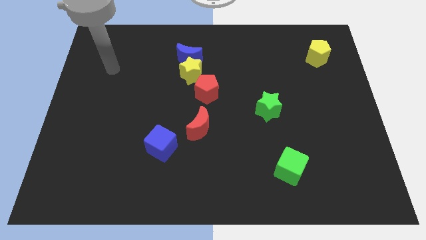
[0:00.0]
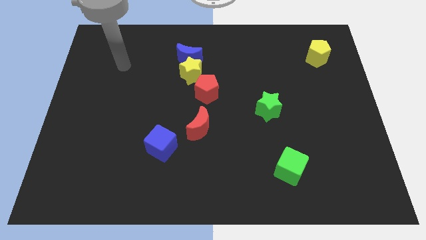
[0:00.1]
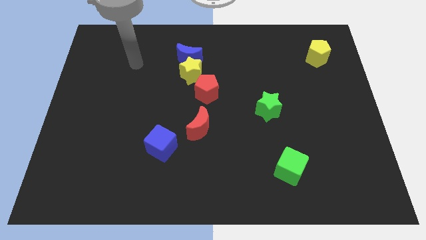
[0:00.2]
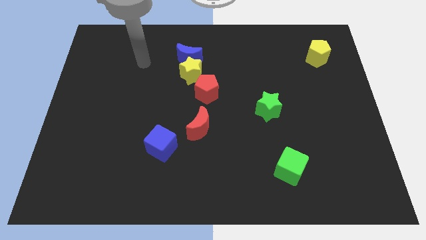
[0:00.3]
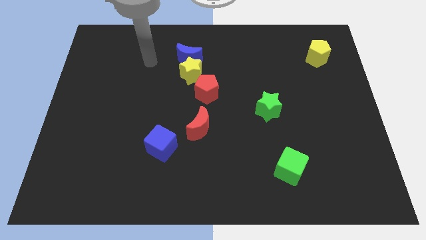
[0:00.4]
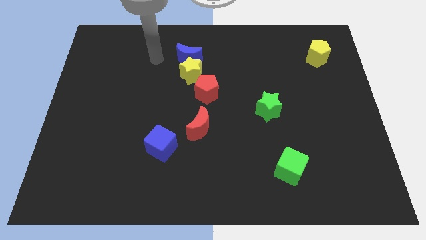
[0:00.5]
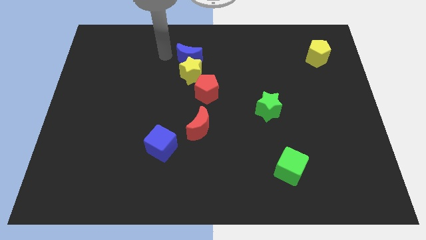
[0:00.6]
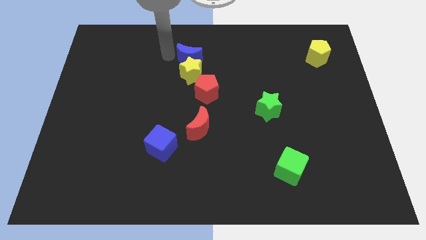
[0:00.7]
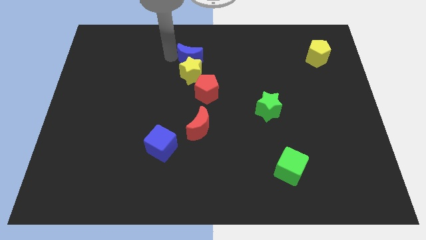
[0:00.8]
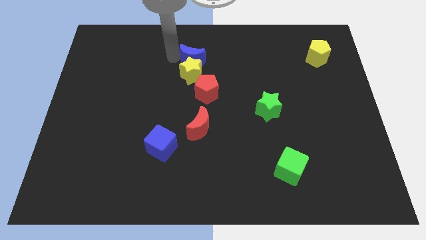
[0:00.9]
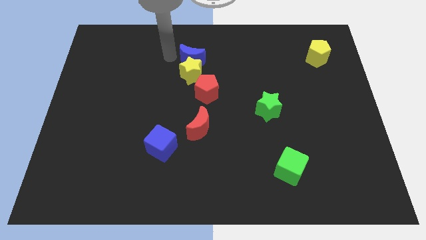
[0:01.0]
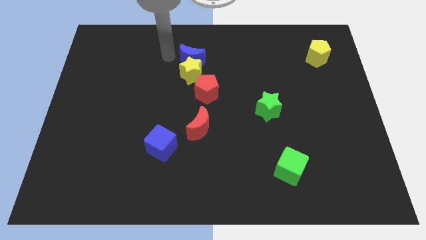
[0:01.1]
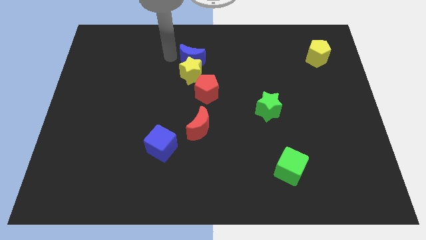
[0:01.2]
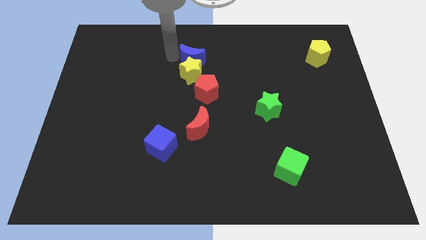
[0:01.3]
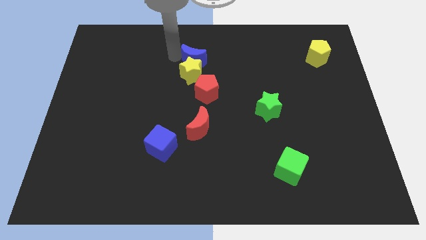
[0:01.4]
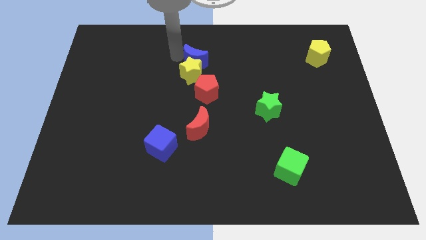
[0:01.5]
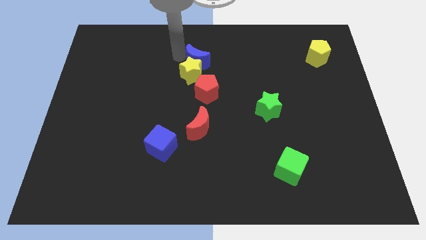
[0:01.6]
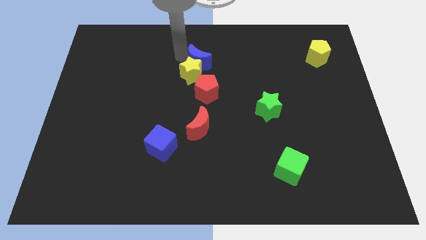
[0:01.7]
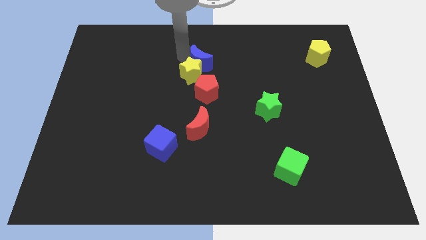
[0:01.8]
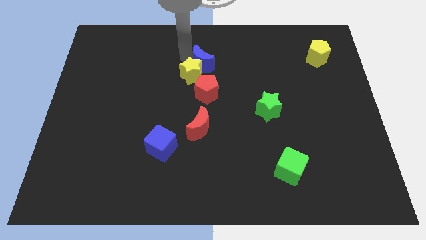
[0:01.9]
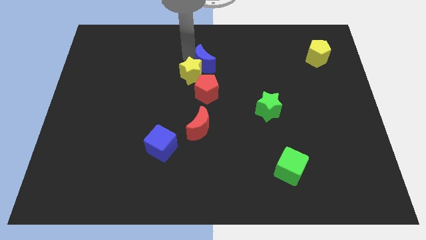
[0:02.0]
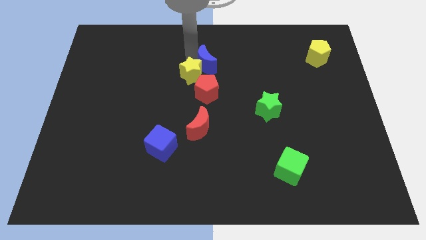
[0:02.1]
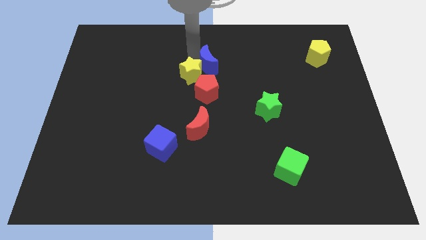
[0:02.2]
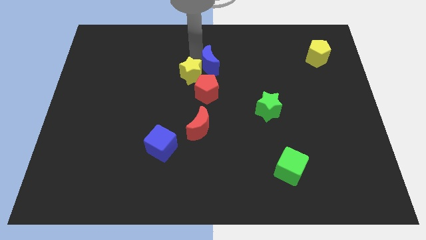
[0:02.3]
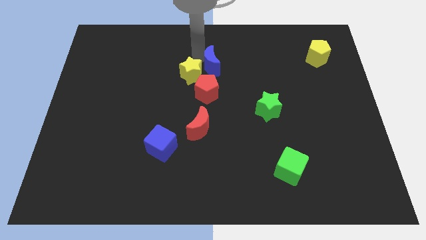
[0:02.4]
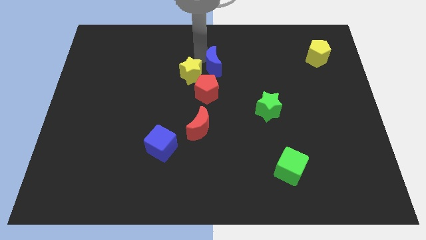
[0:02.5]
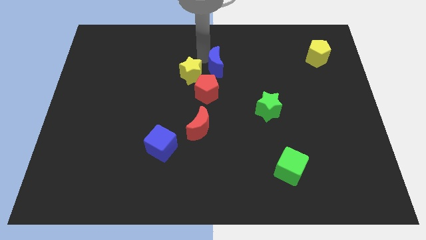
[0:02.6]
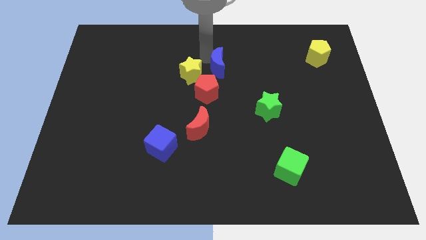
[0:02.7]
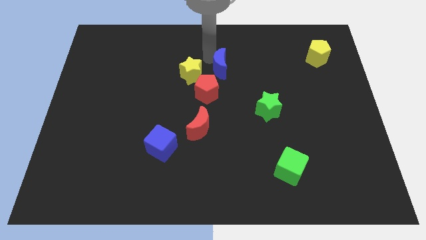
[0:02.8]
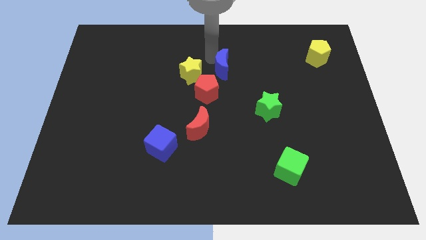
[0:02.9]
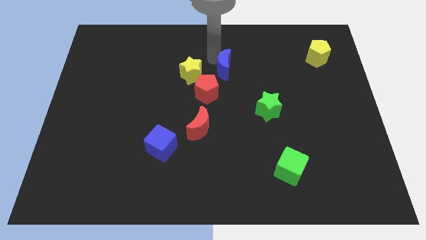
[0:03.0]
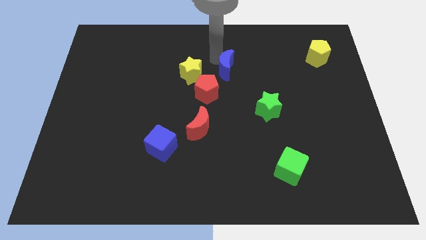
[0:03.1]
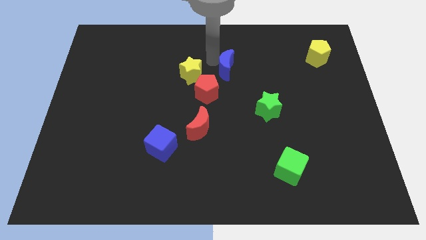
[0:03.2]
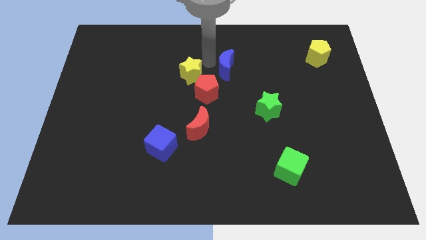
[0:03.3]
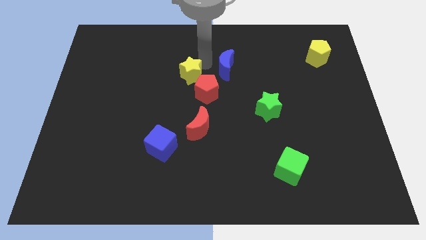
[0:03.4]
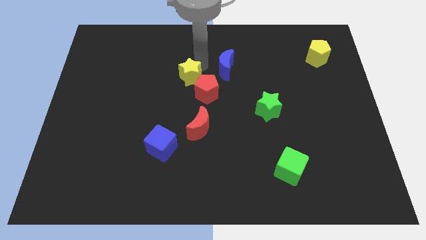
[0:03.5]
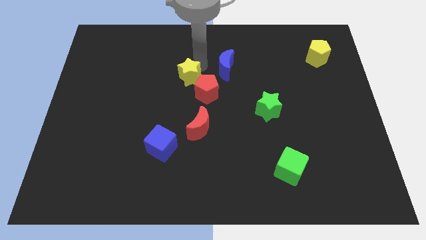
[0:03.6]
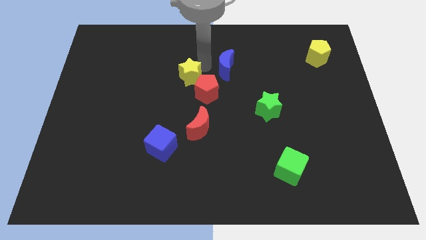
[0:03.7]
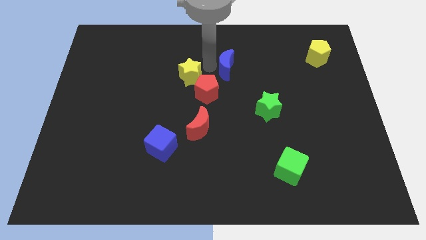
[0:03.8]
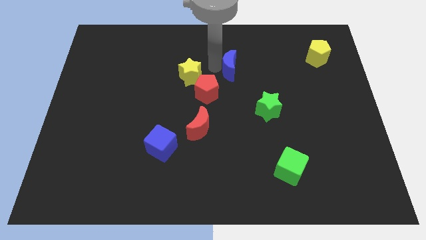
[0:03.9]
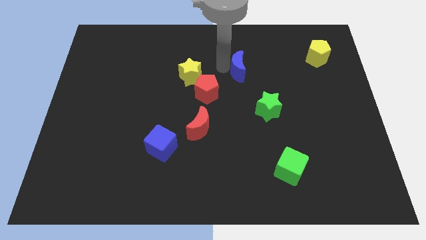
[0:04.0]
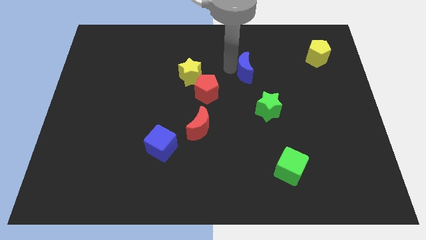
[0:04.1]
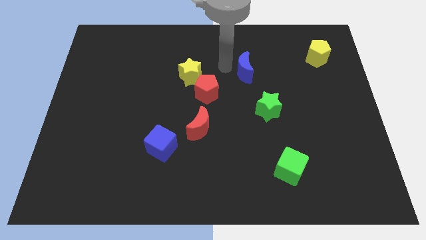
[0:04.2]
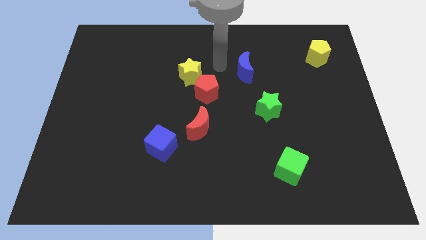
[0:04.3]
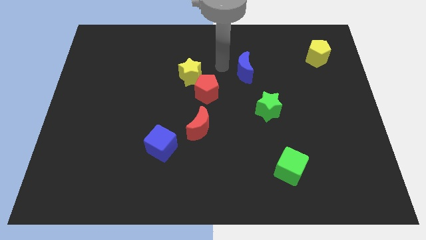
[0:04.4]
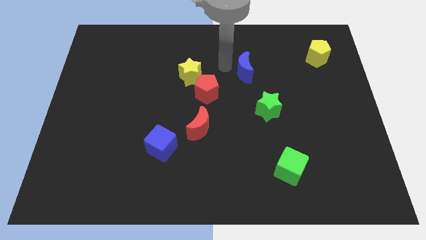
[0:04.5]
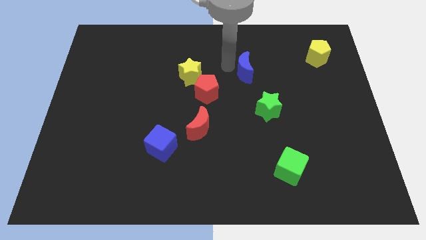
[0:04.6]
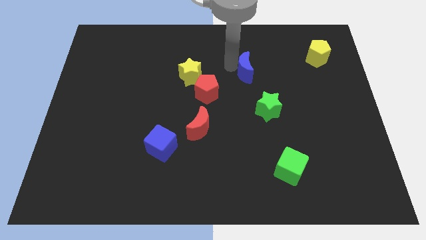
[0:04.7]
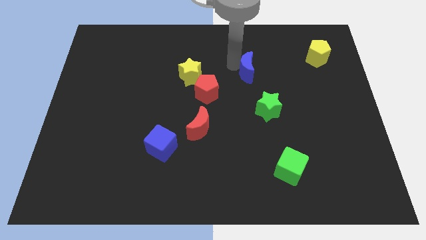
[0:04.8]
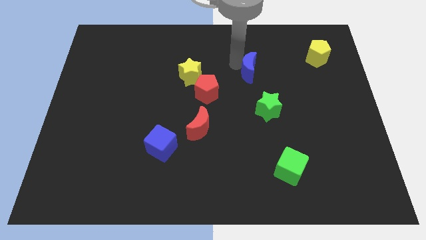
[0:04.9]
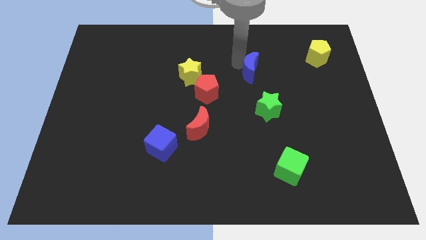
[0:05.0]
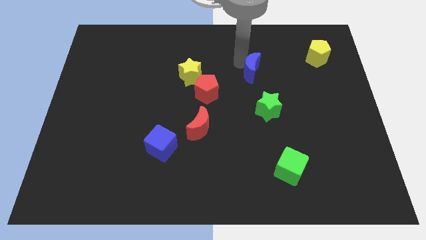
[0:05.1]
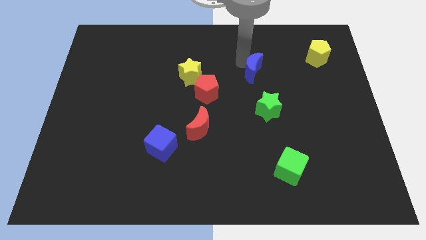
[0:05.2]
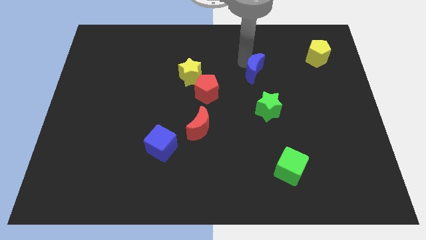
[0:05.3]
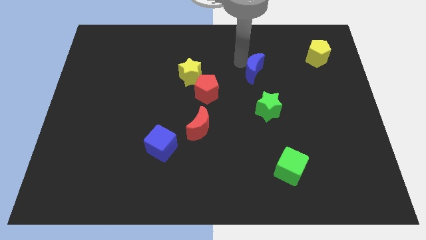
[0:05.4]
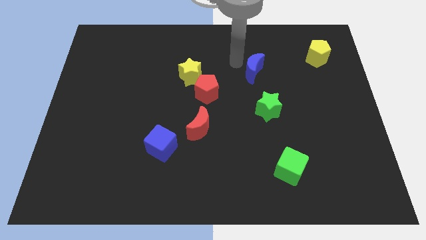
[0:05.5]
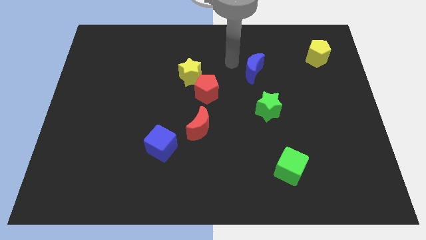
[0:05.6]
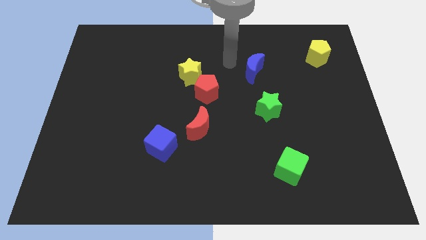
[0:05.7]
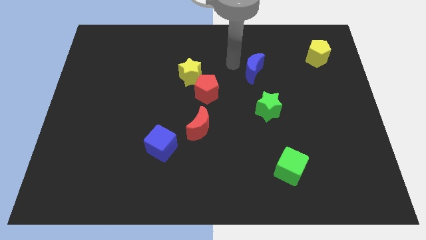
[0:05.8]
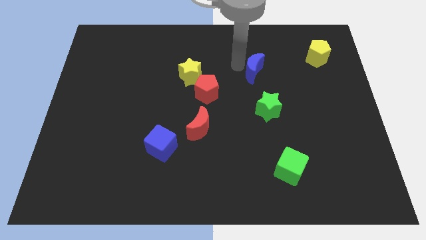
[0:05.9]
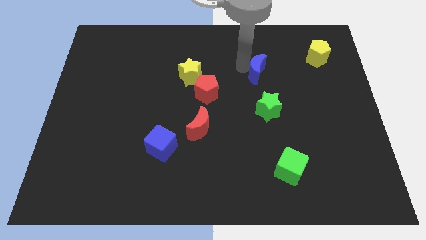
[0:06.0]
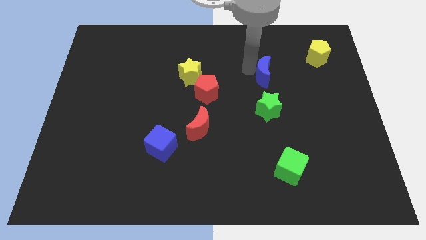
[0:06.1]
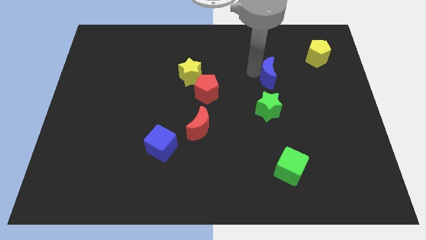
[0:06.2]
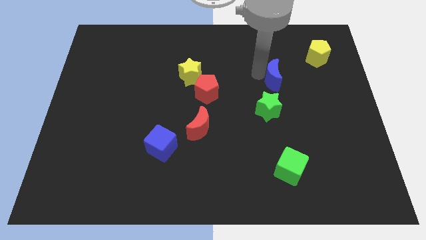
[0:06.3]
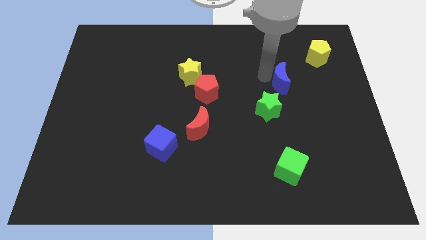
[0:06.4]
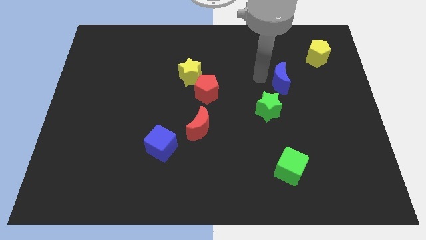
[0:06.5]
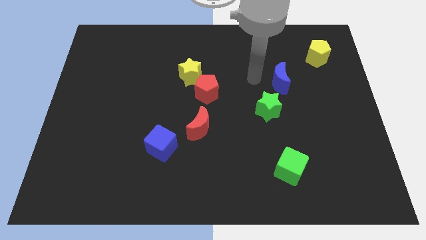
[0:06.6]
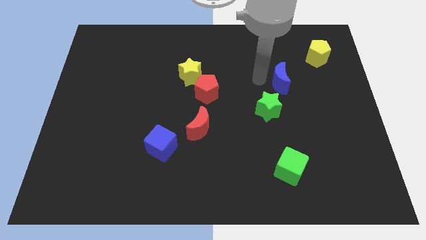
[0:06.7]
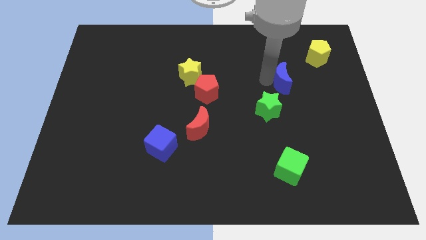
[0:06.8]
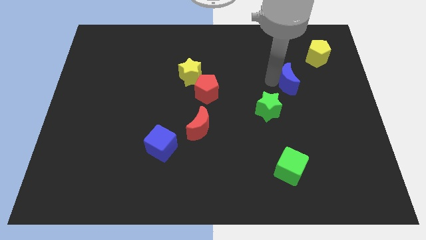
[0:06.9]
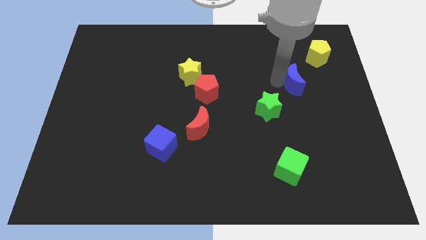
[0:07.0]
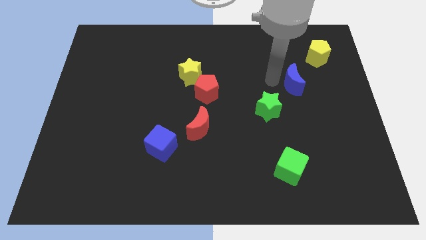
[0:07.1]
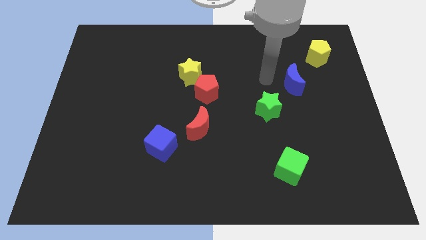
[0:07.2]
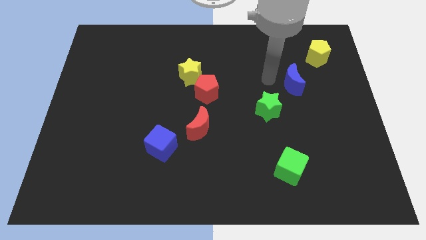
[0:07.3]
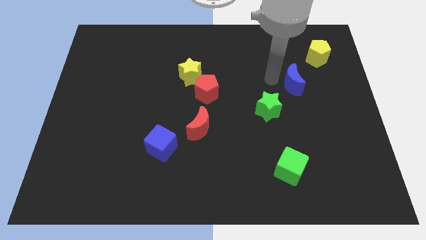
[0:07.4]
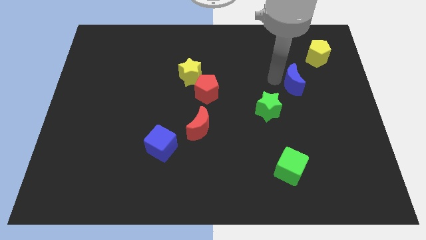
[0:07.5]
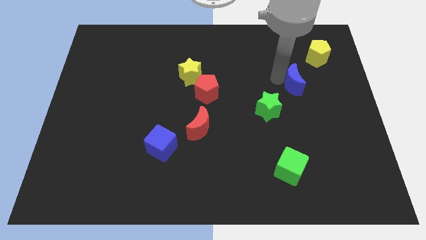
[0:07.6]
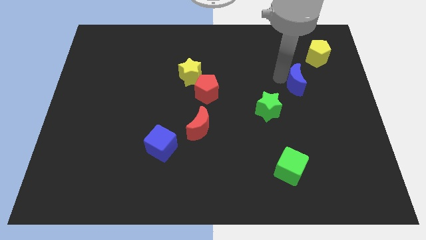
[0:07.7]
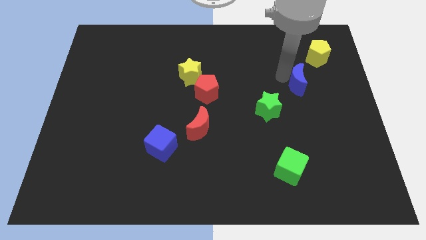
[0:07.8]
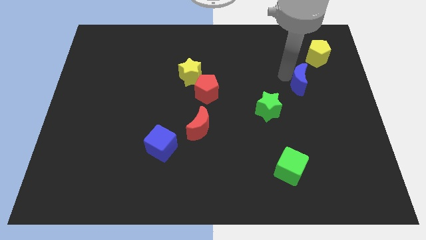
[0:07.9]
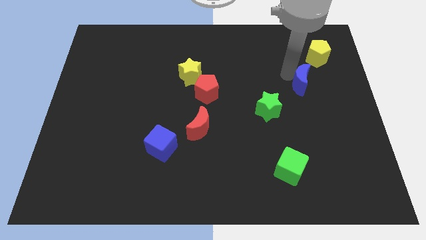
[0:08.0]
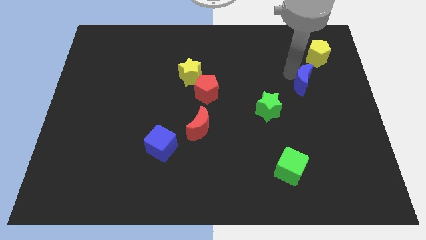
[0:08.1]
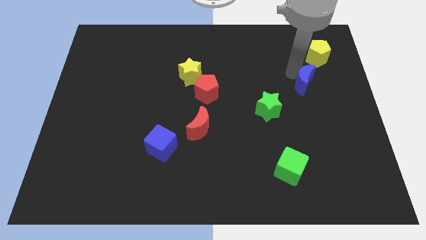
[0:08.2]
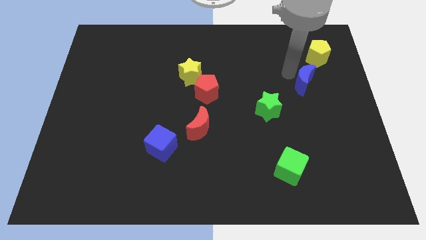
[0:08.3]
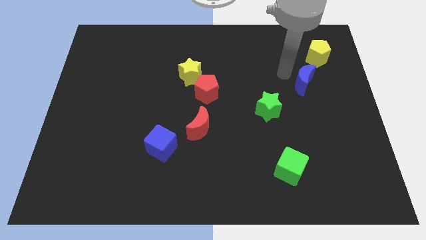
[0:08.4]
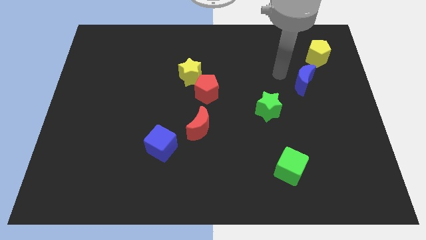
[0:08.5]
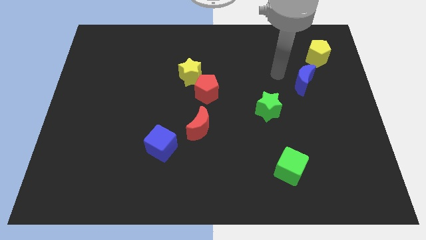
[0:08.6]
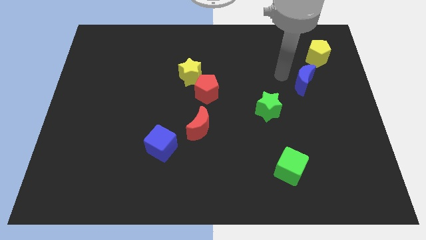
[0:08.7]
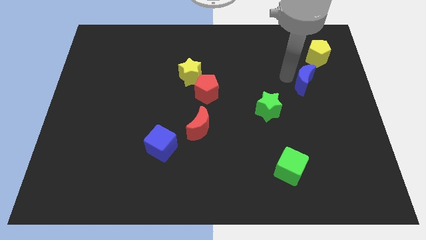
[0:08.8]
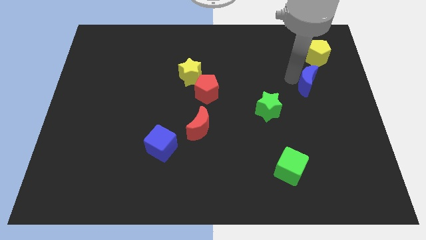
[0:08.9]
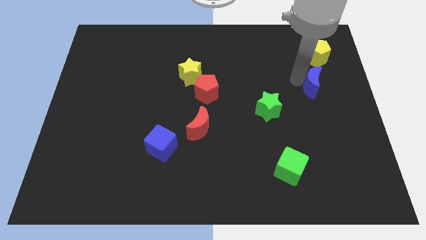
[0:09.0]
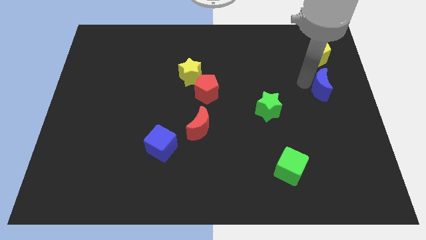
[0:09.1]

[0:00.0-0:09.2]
put the blue moon to the right side of the board
